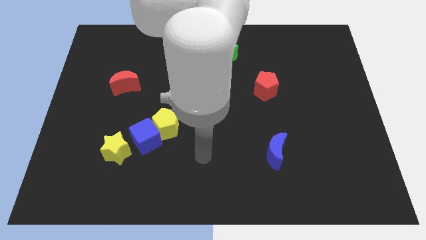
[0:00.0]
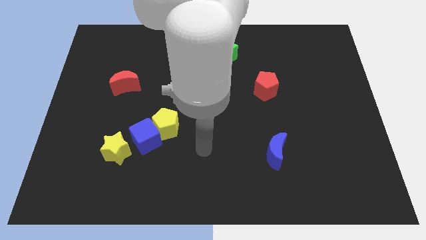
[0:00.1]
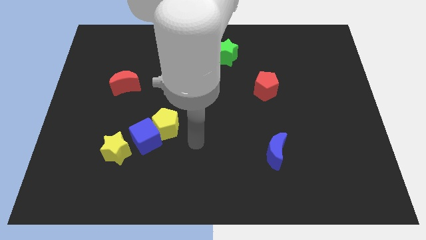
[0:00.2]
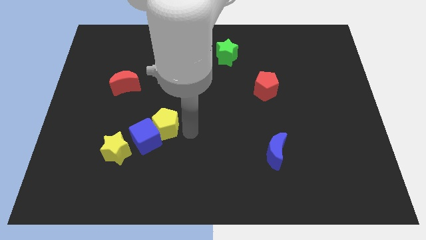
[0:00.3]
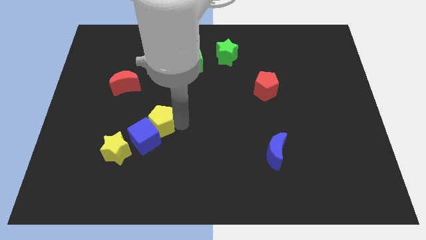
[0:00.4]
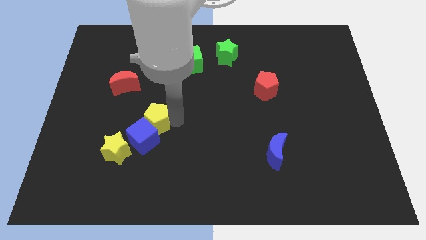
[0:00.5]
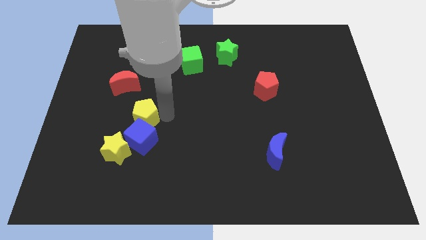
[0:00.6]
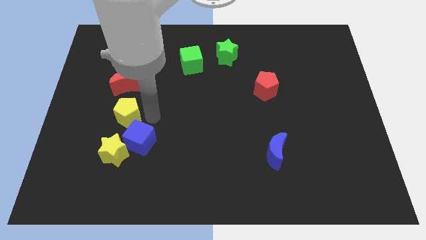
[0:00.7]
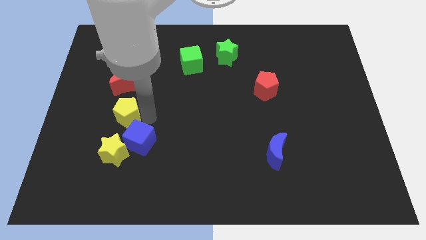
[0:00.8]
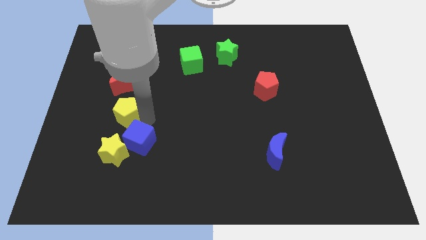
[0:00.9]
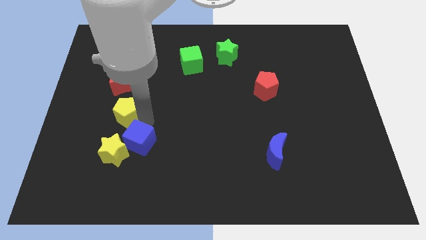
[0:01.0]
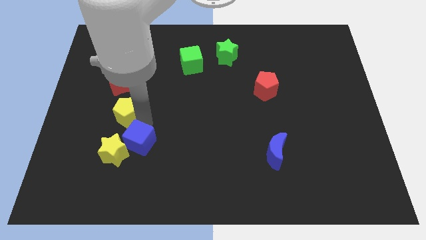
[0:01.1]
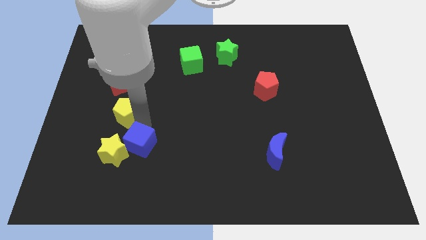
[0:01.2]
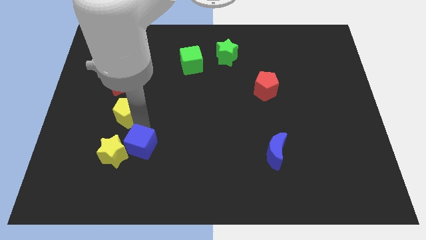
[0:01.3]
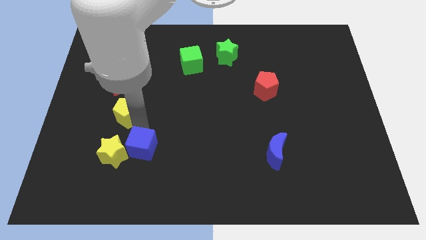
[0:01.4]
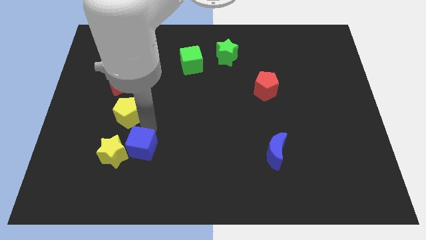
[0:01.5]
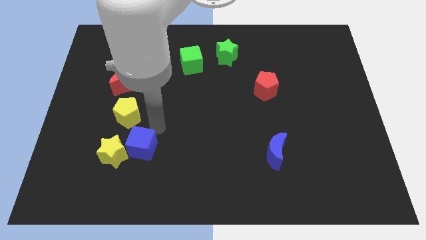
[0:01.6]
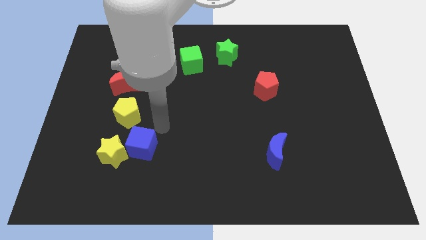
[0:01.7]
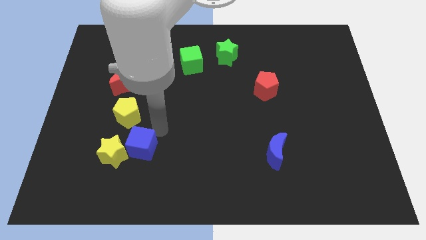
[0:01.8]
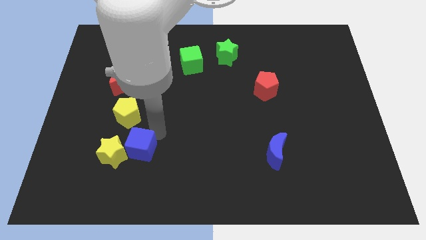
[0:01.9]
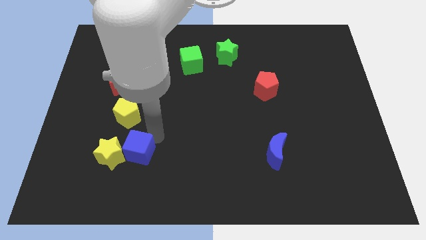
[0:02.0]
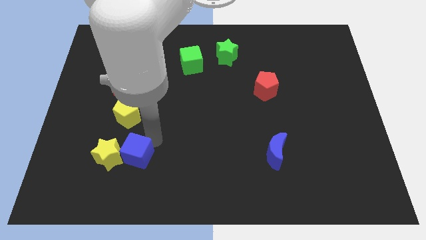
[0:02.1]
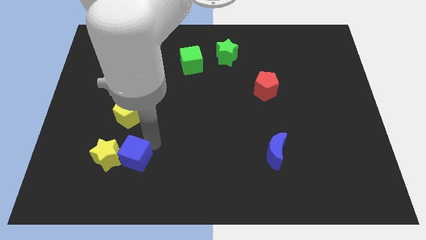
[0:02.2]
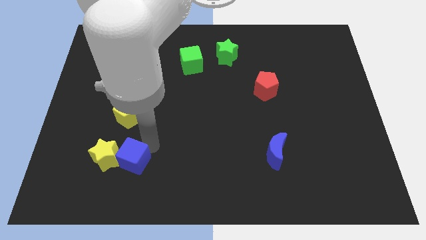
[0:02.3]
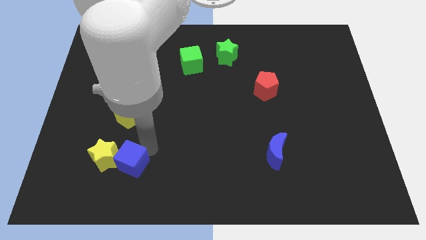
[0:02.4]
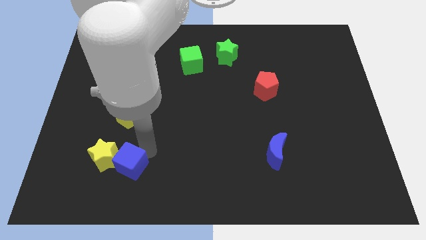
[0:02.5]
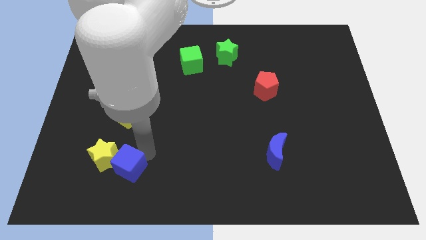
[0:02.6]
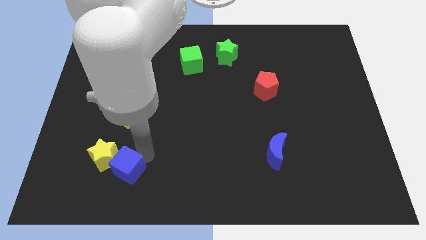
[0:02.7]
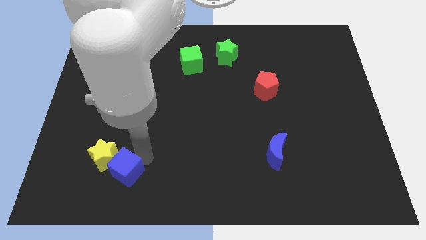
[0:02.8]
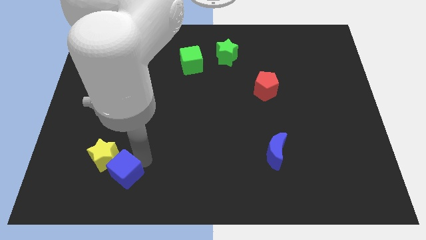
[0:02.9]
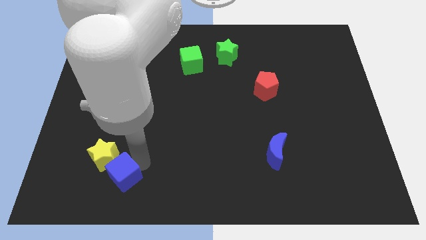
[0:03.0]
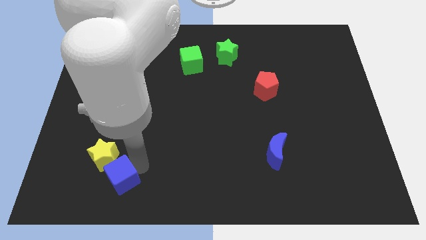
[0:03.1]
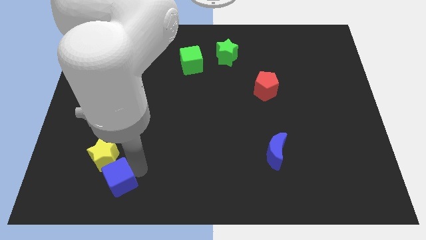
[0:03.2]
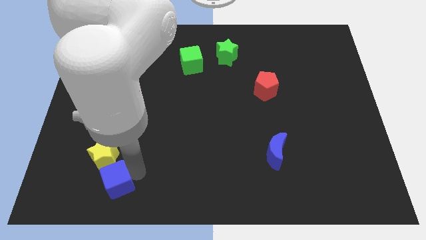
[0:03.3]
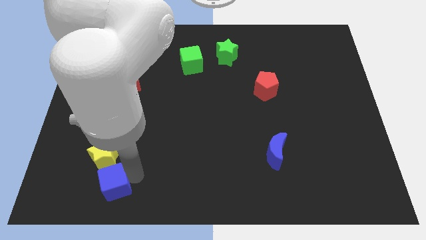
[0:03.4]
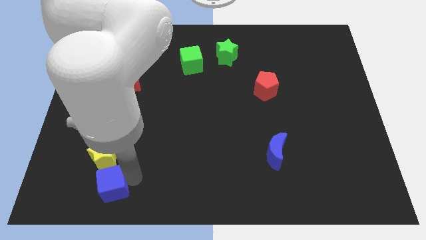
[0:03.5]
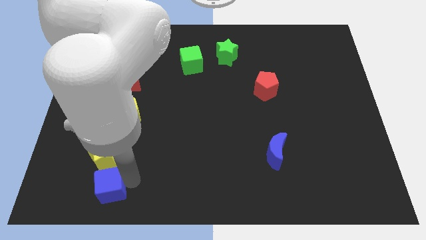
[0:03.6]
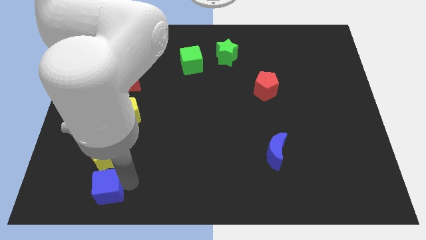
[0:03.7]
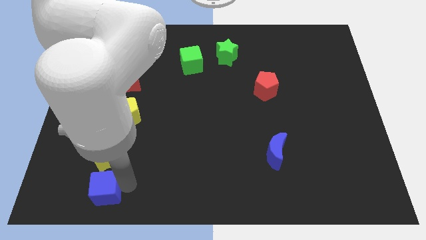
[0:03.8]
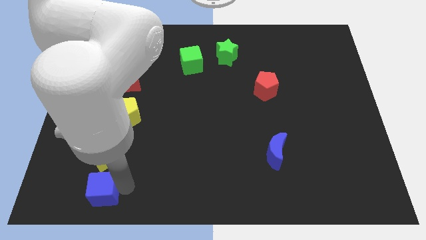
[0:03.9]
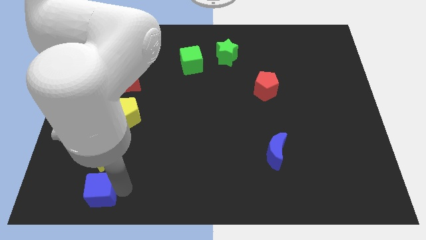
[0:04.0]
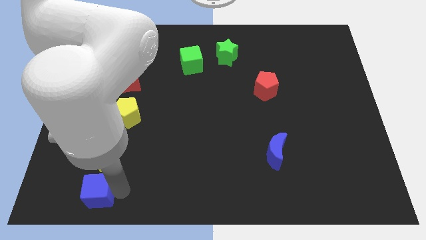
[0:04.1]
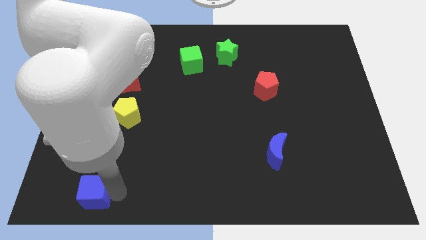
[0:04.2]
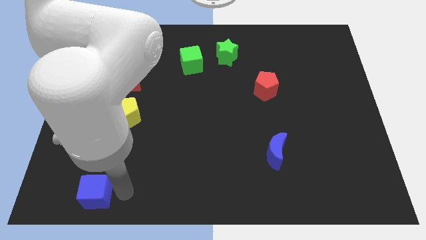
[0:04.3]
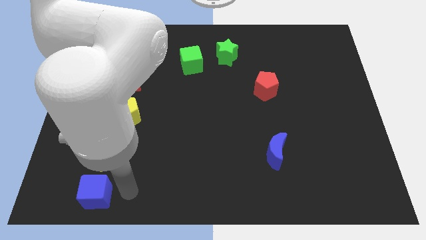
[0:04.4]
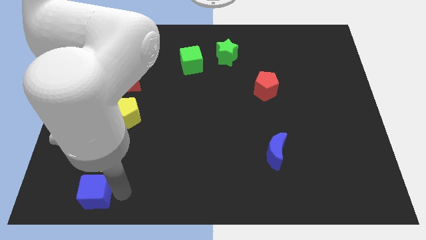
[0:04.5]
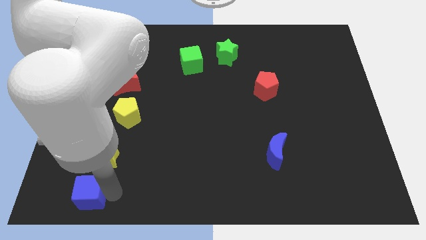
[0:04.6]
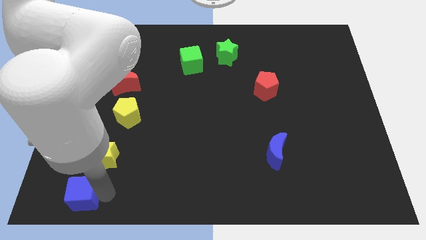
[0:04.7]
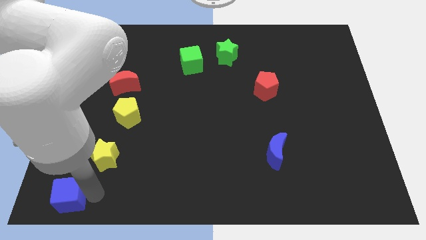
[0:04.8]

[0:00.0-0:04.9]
move the blue cube to the bottom left of the board
